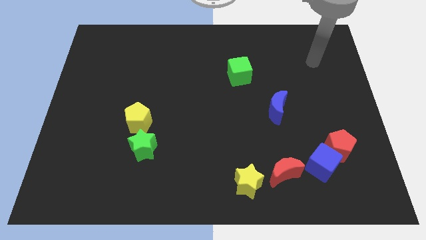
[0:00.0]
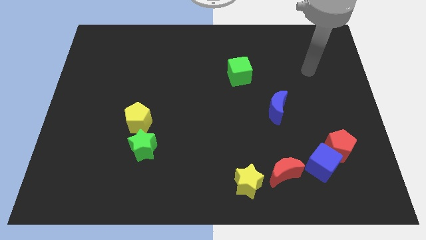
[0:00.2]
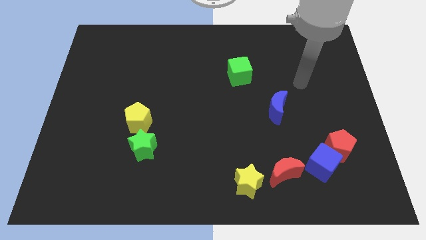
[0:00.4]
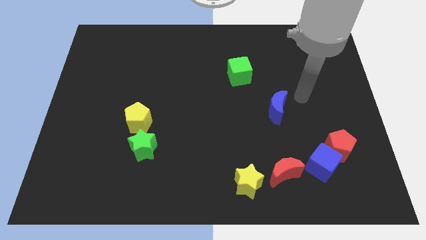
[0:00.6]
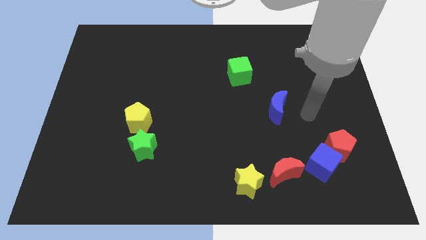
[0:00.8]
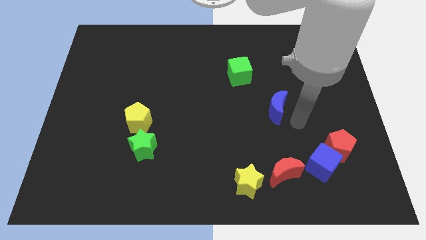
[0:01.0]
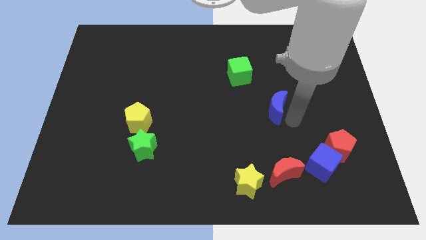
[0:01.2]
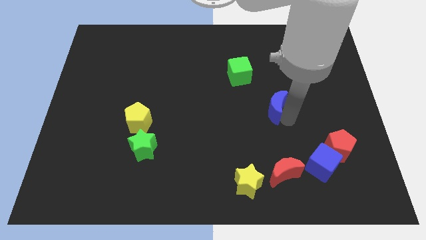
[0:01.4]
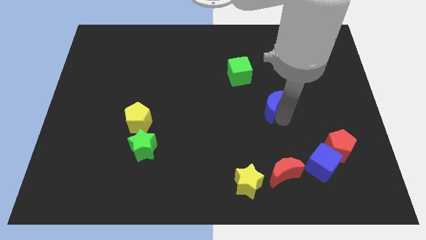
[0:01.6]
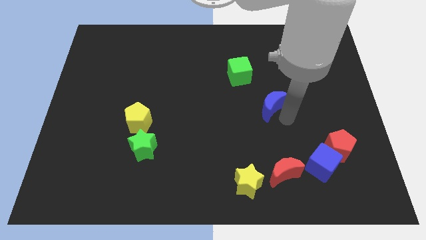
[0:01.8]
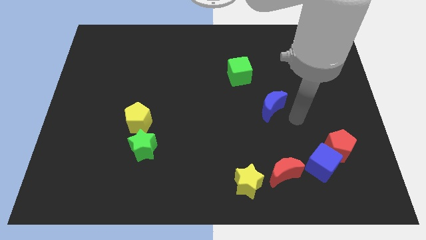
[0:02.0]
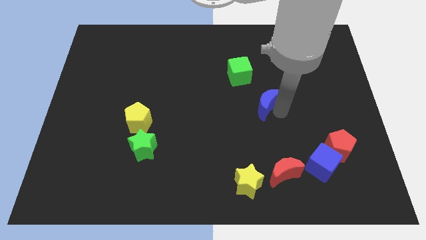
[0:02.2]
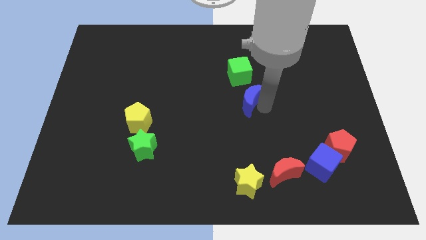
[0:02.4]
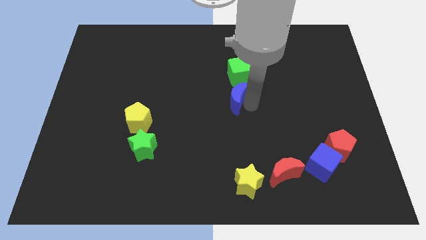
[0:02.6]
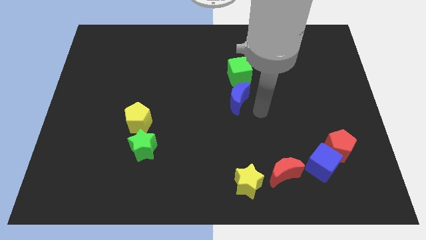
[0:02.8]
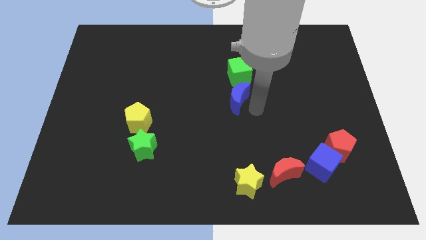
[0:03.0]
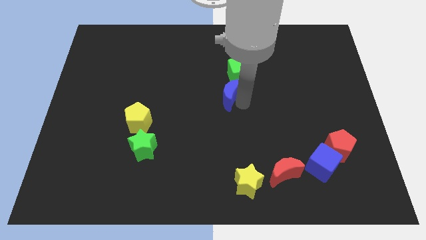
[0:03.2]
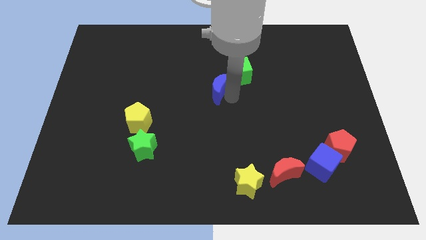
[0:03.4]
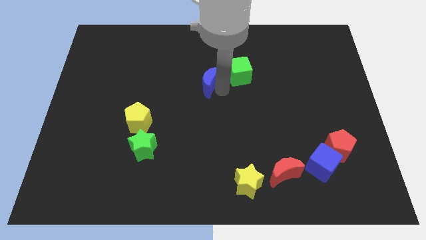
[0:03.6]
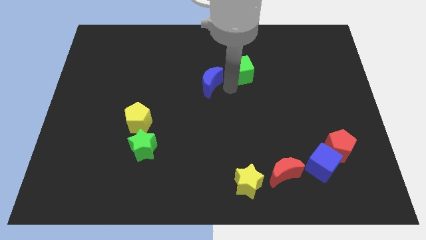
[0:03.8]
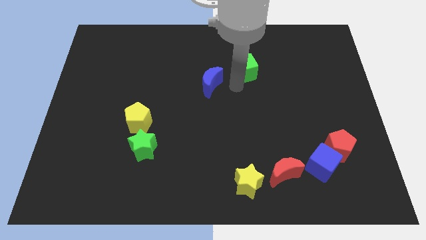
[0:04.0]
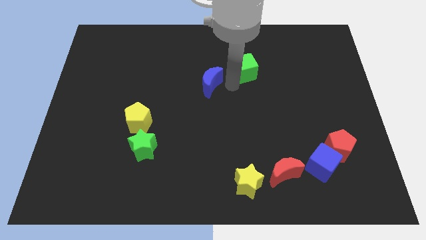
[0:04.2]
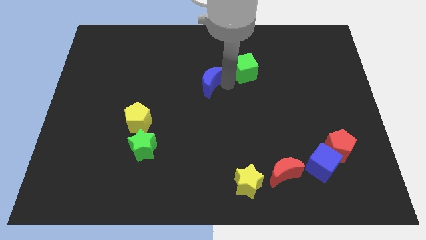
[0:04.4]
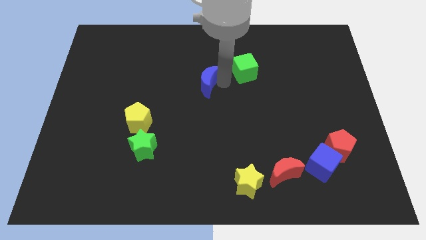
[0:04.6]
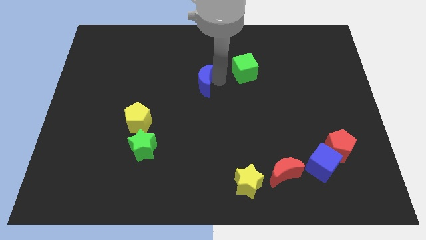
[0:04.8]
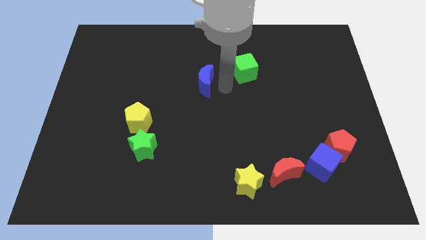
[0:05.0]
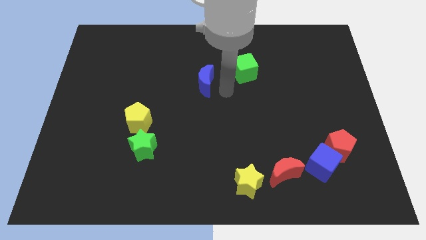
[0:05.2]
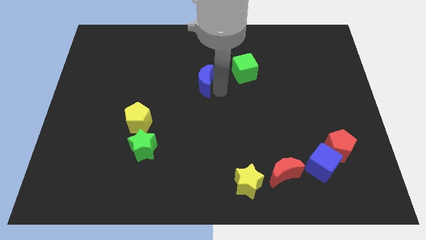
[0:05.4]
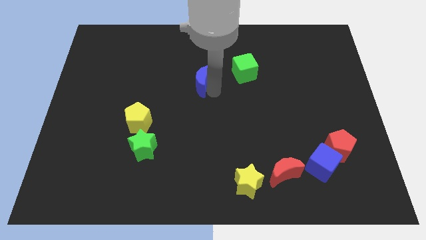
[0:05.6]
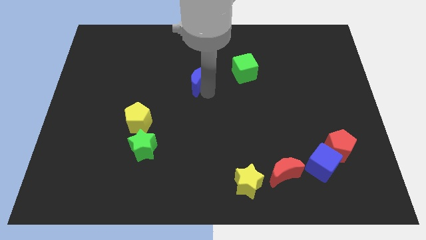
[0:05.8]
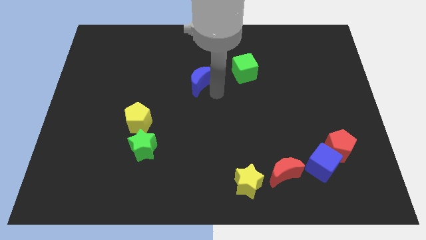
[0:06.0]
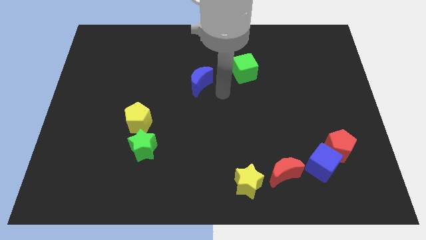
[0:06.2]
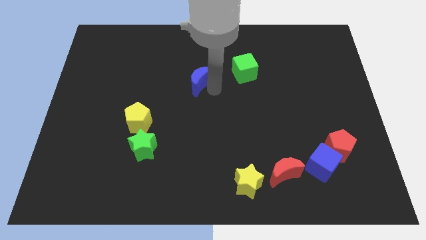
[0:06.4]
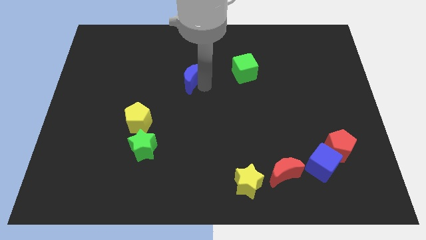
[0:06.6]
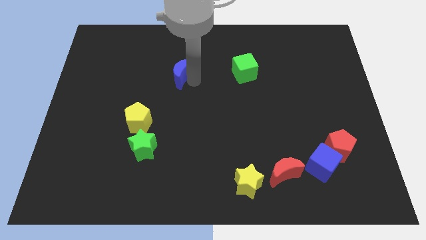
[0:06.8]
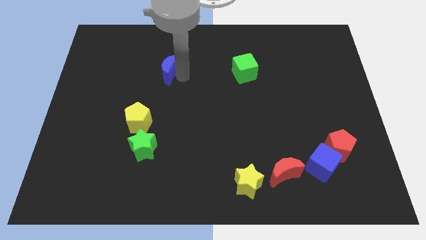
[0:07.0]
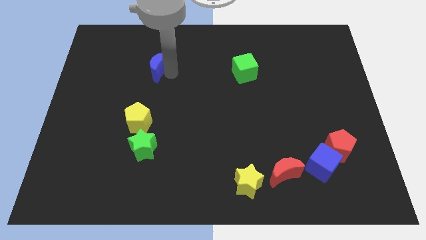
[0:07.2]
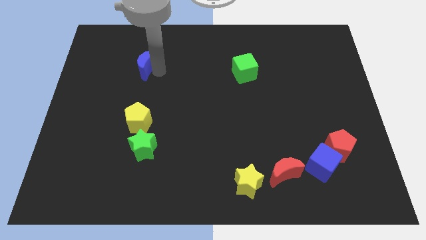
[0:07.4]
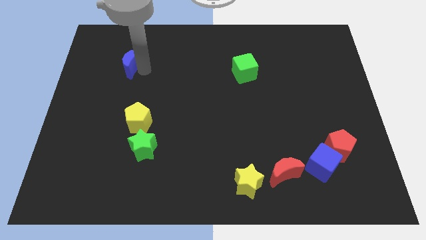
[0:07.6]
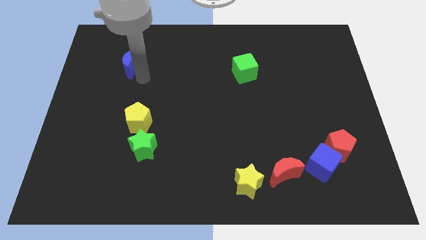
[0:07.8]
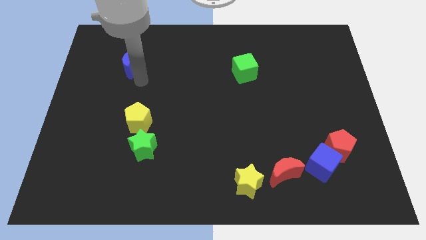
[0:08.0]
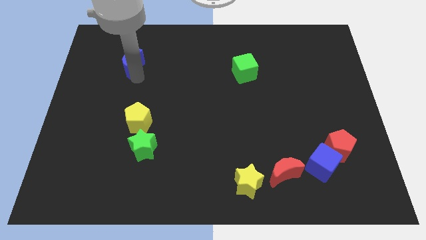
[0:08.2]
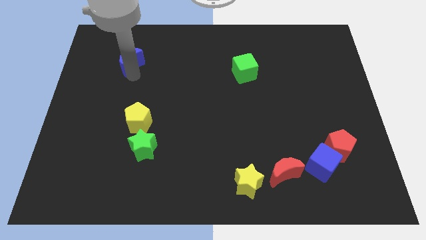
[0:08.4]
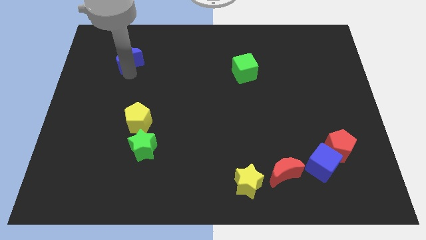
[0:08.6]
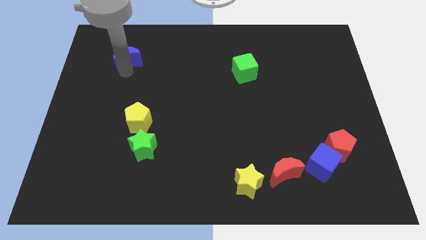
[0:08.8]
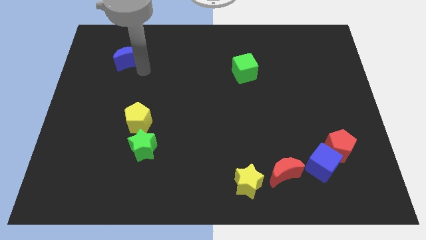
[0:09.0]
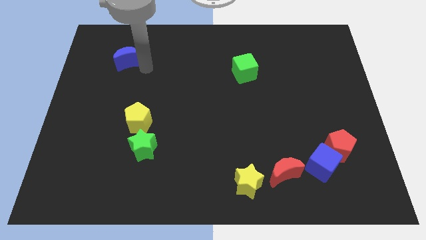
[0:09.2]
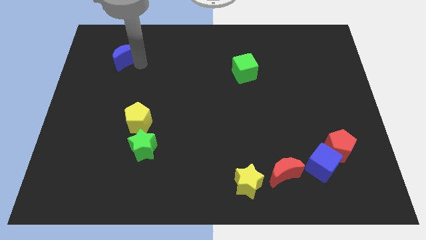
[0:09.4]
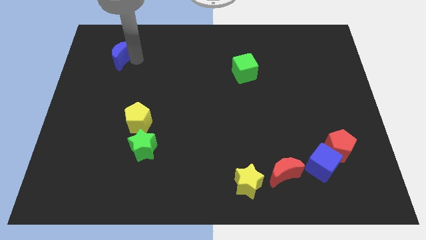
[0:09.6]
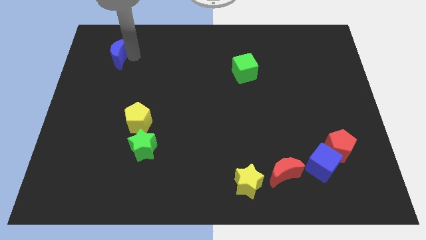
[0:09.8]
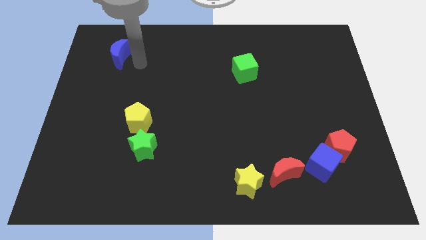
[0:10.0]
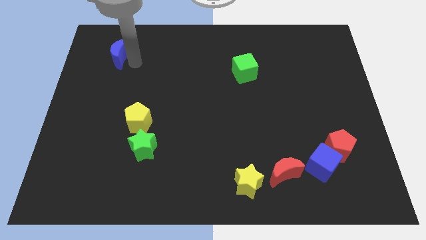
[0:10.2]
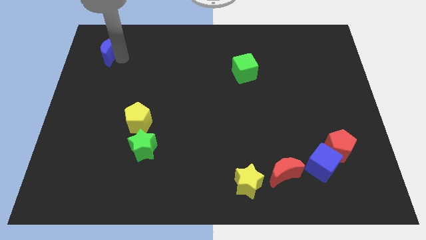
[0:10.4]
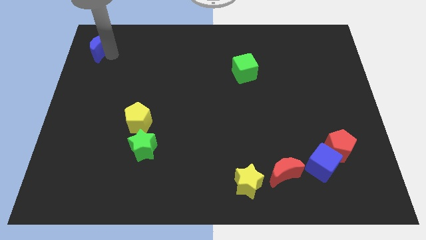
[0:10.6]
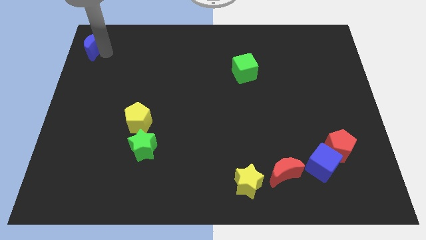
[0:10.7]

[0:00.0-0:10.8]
move the blue moon to the upper left corner
